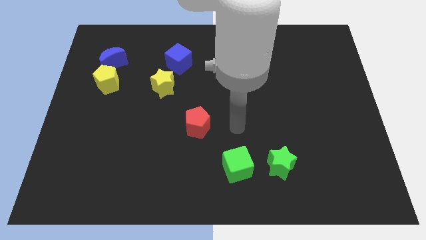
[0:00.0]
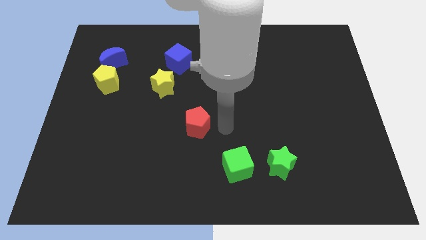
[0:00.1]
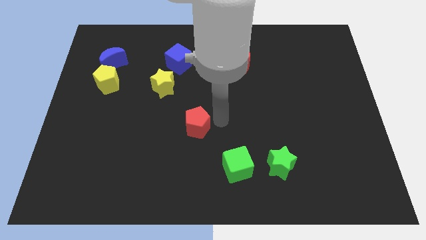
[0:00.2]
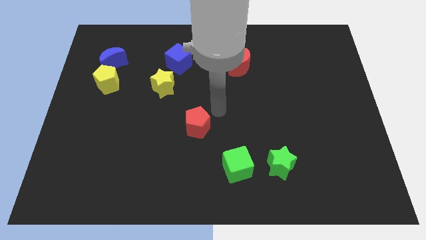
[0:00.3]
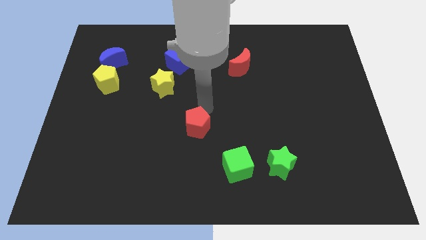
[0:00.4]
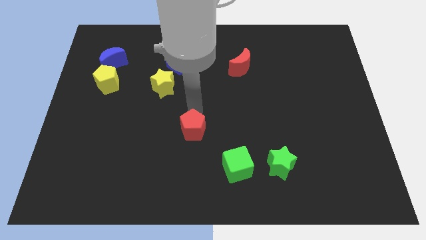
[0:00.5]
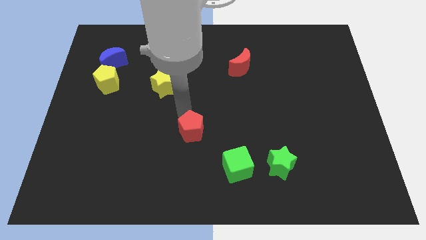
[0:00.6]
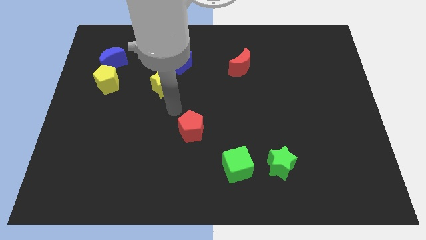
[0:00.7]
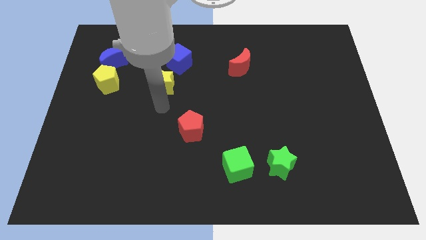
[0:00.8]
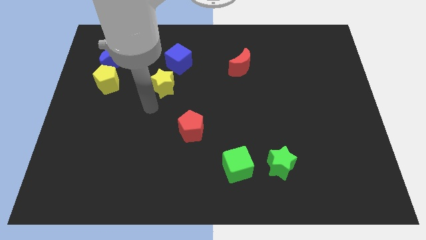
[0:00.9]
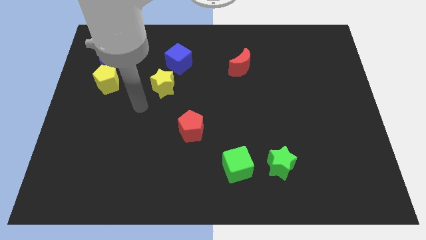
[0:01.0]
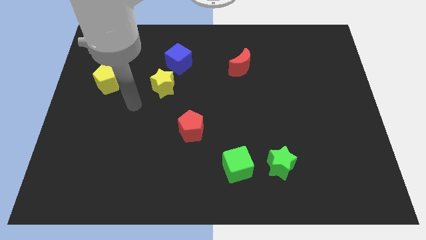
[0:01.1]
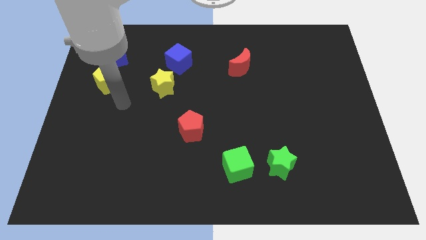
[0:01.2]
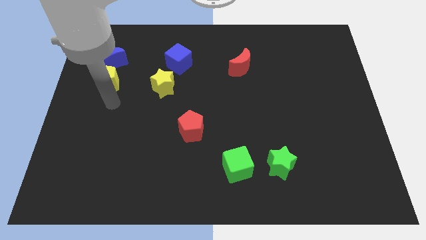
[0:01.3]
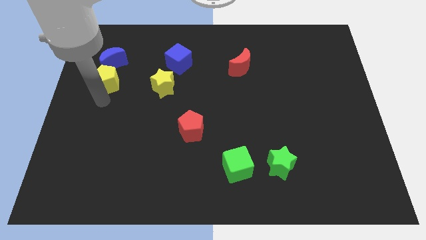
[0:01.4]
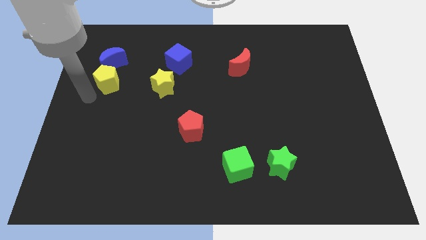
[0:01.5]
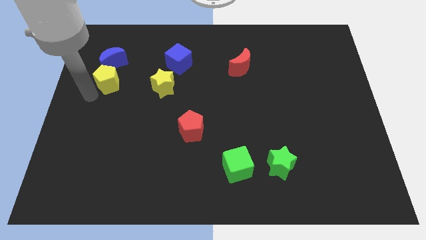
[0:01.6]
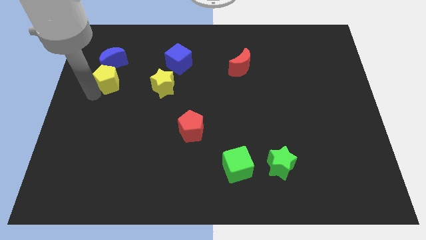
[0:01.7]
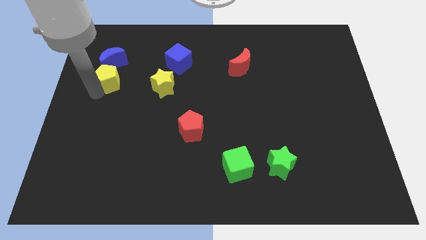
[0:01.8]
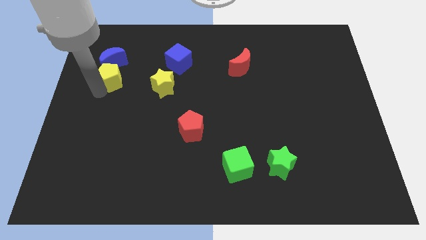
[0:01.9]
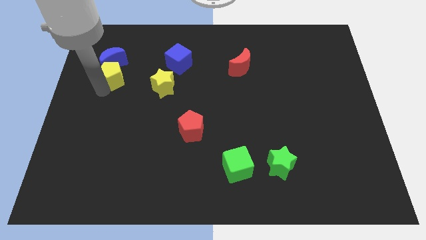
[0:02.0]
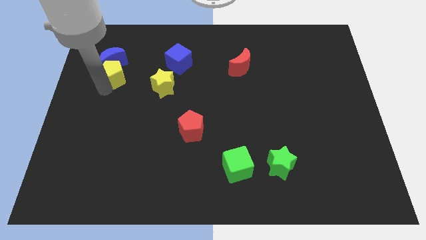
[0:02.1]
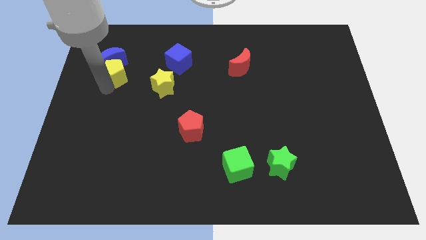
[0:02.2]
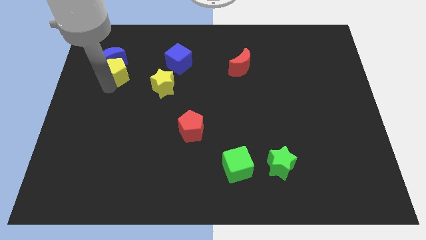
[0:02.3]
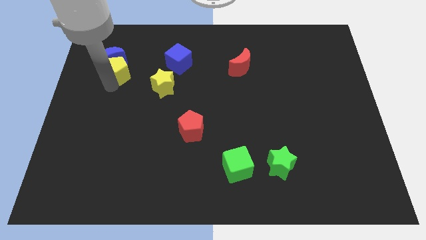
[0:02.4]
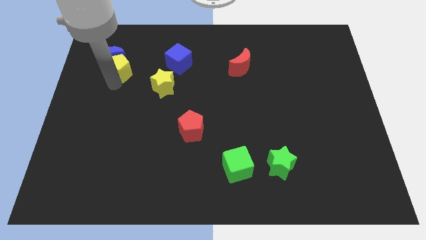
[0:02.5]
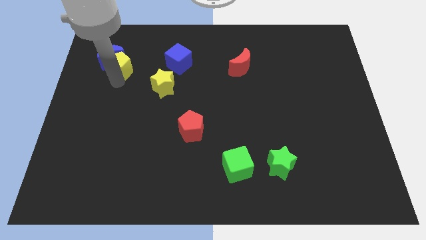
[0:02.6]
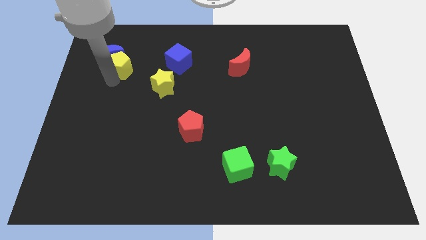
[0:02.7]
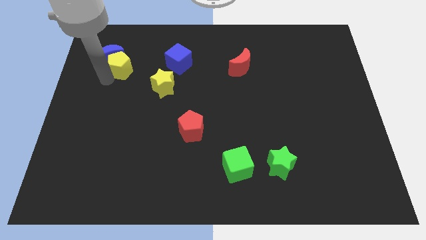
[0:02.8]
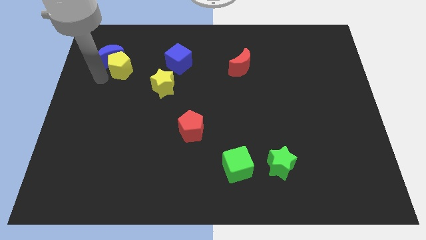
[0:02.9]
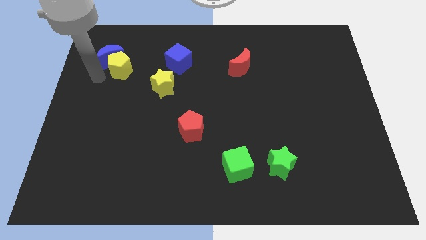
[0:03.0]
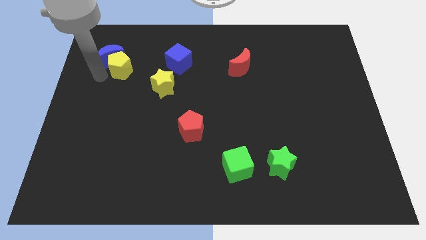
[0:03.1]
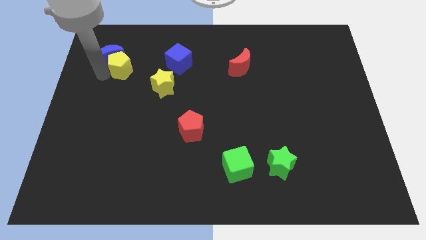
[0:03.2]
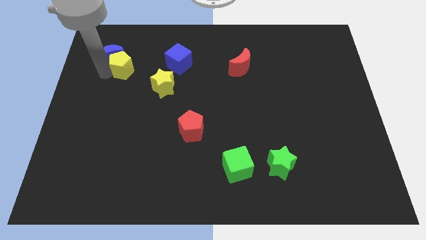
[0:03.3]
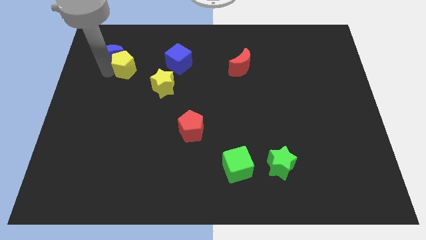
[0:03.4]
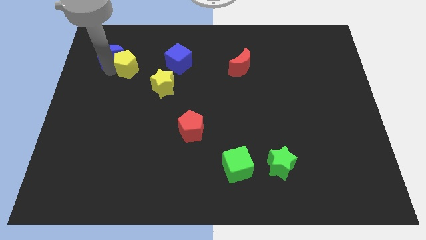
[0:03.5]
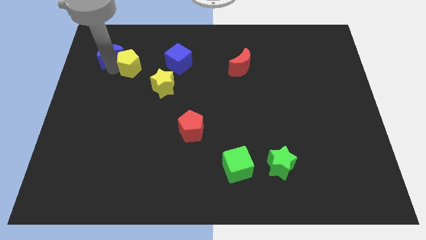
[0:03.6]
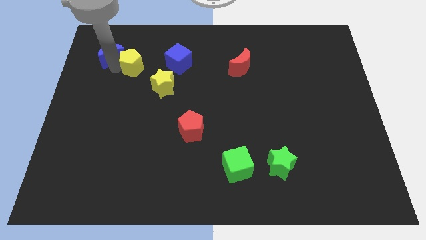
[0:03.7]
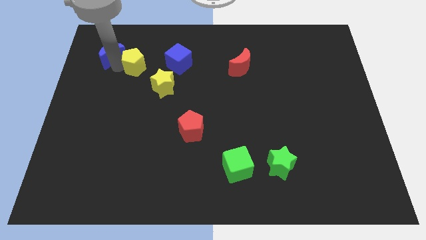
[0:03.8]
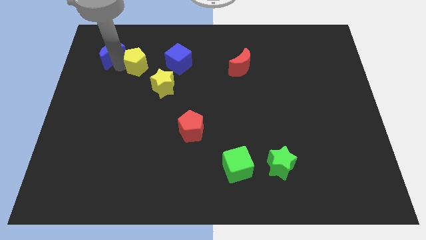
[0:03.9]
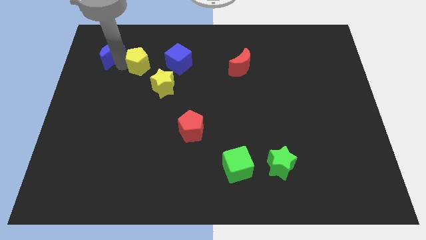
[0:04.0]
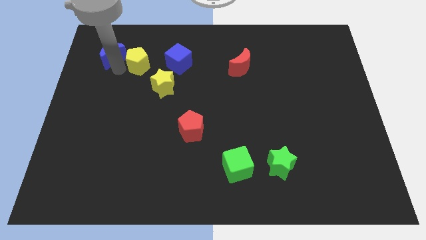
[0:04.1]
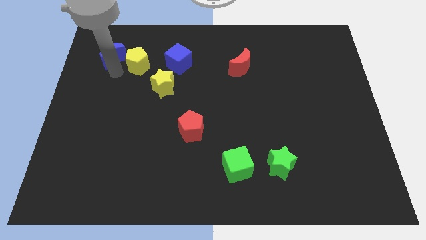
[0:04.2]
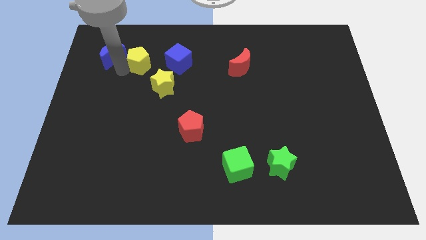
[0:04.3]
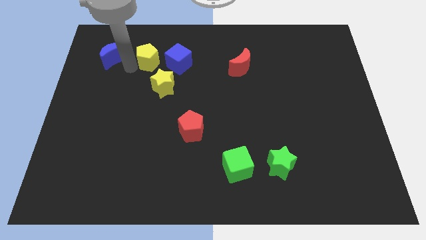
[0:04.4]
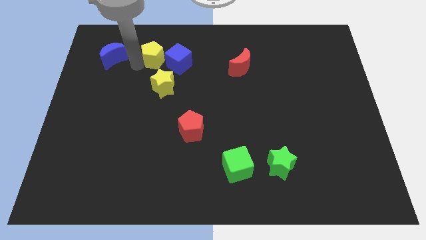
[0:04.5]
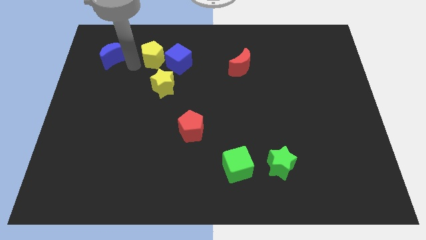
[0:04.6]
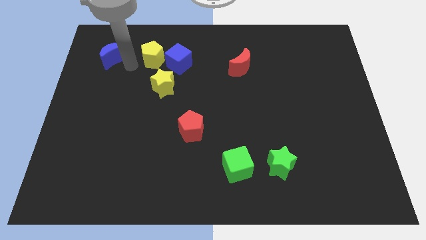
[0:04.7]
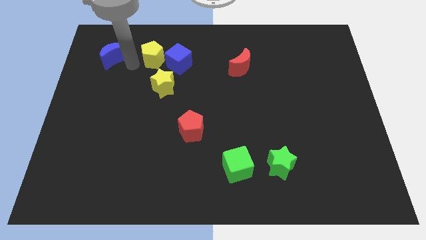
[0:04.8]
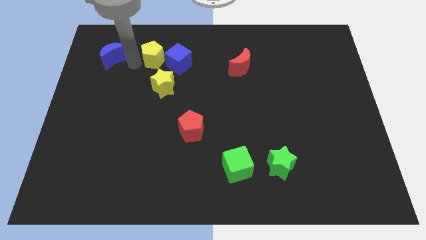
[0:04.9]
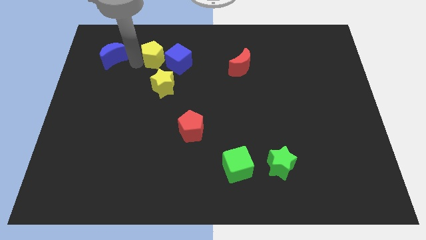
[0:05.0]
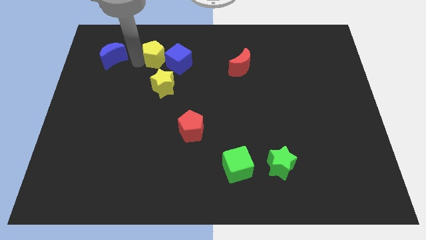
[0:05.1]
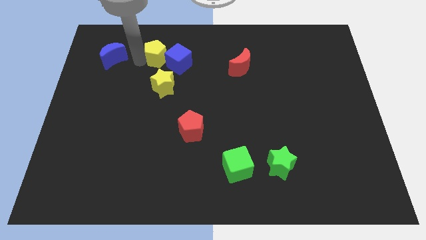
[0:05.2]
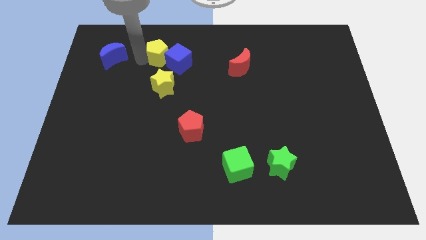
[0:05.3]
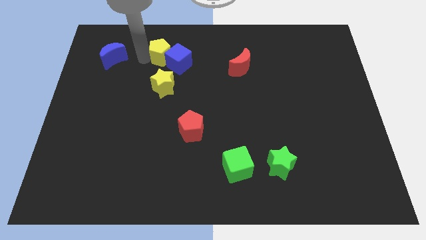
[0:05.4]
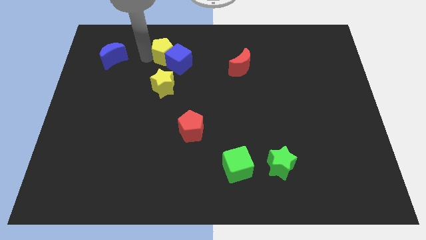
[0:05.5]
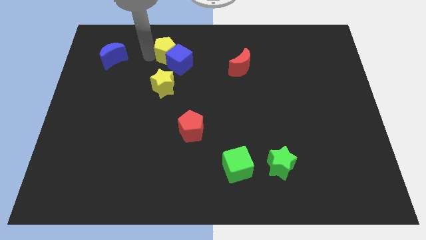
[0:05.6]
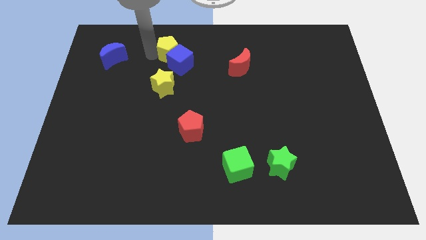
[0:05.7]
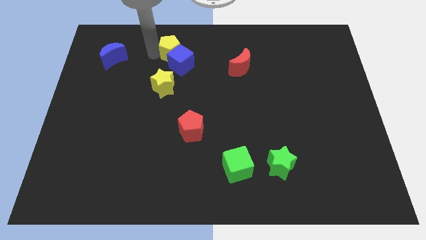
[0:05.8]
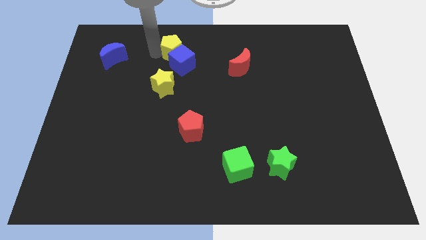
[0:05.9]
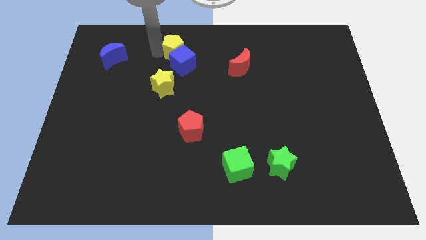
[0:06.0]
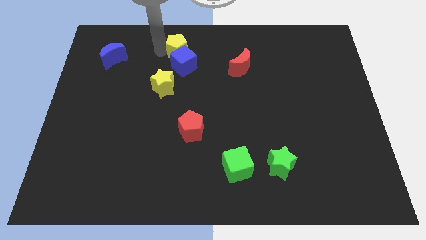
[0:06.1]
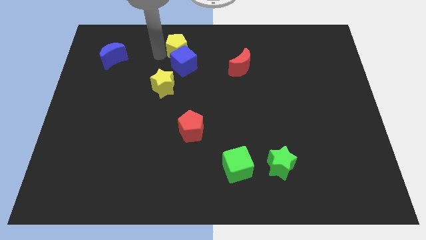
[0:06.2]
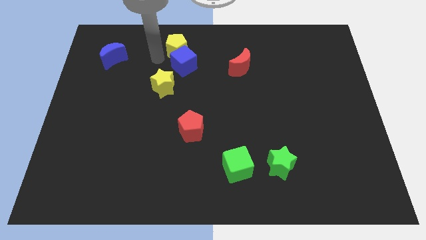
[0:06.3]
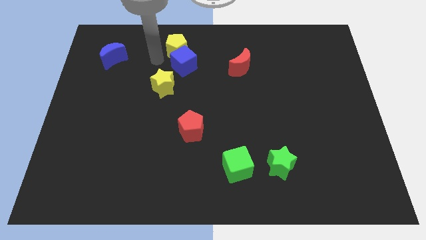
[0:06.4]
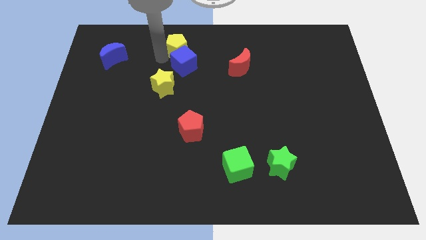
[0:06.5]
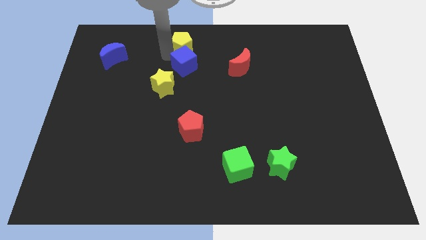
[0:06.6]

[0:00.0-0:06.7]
push the yellow pentagon to the top

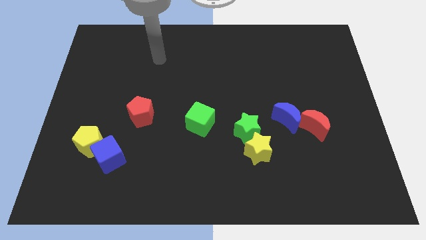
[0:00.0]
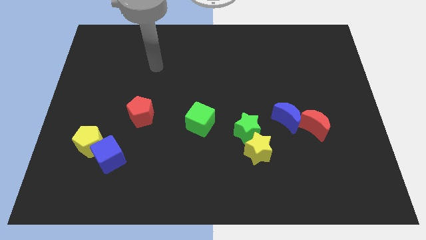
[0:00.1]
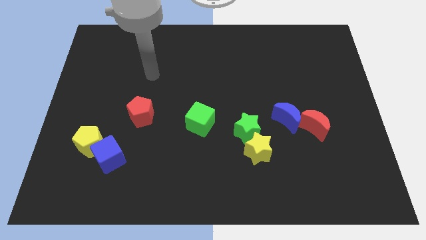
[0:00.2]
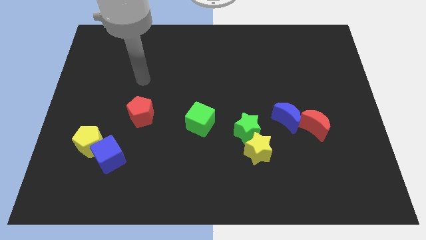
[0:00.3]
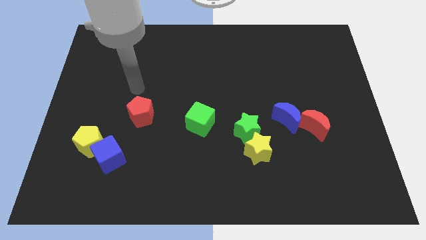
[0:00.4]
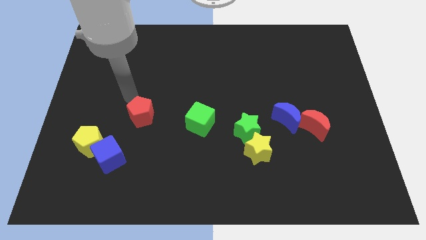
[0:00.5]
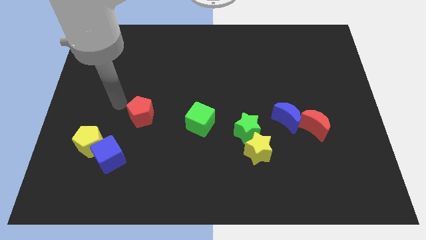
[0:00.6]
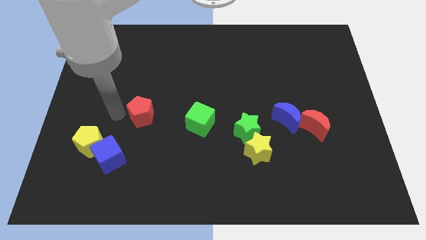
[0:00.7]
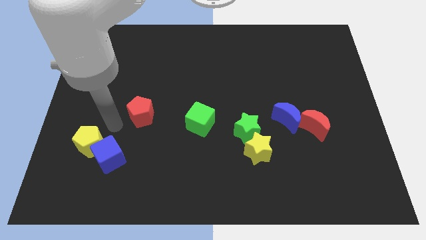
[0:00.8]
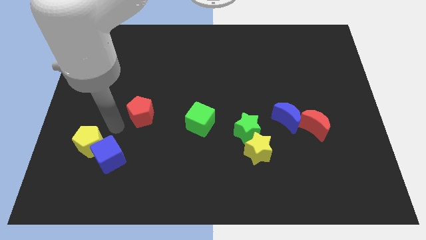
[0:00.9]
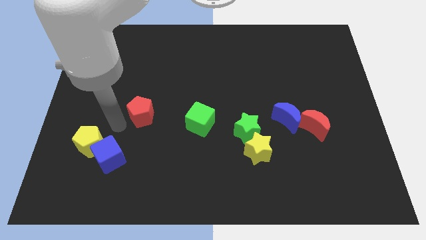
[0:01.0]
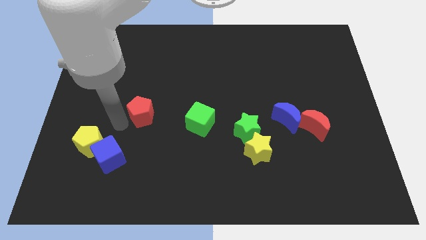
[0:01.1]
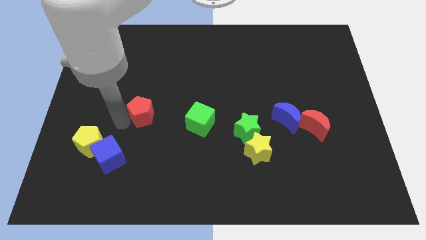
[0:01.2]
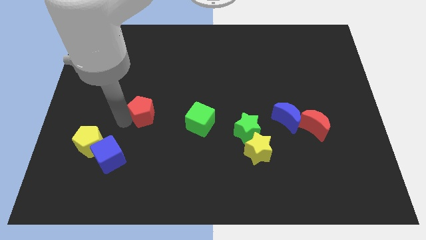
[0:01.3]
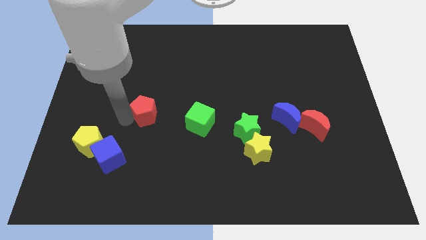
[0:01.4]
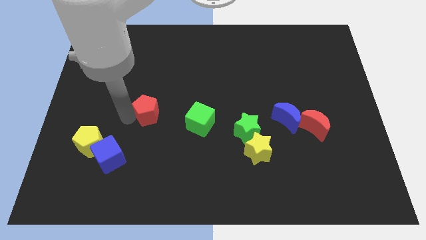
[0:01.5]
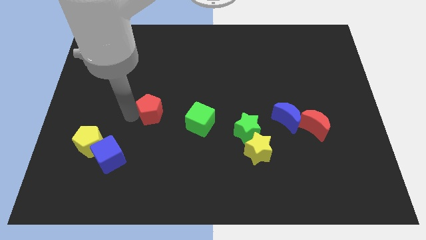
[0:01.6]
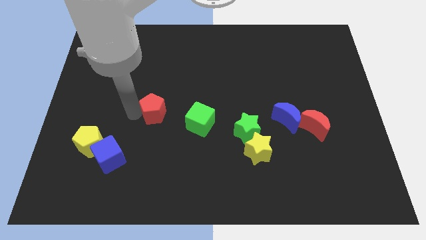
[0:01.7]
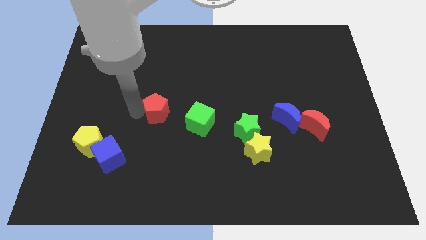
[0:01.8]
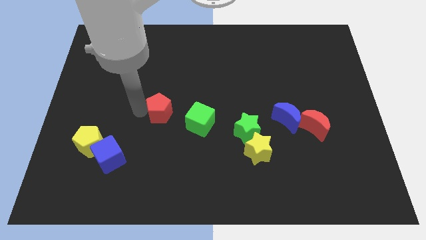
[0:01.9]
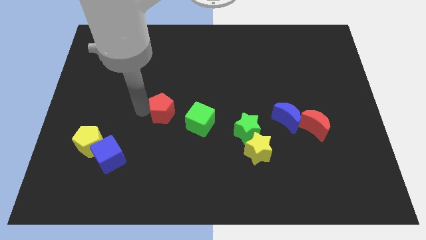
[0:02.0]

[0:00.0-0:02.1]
push the red pentagon to the middle
